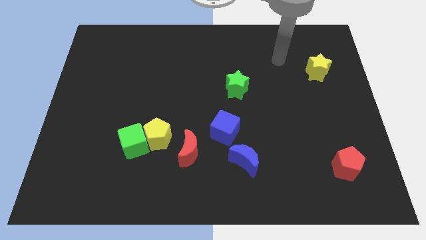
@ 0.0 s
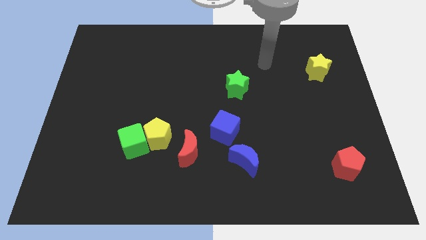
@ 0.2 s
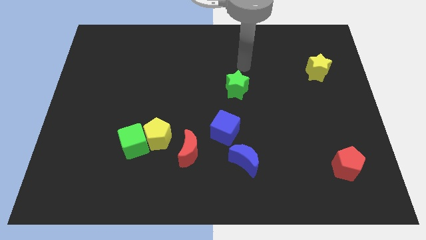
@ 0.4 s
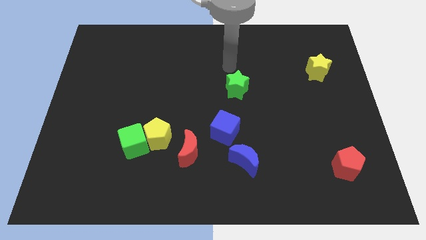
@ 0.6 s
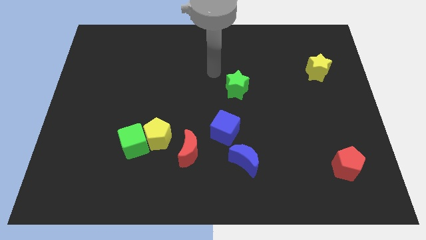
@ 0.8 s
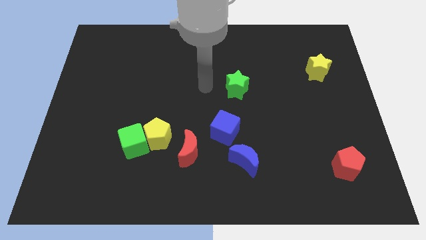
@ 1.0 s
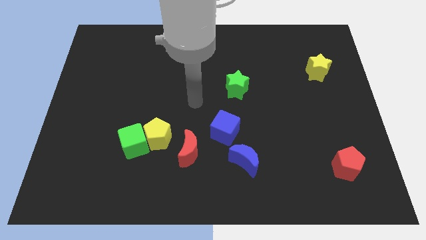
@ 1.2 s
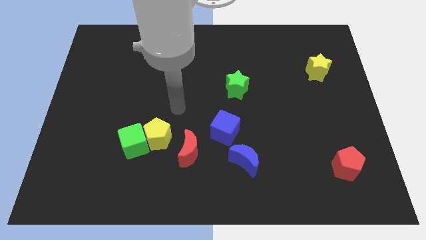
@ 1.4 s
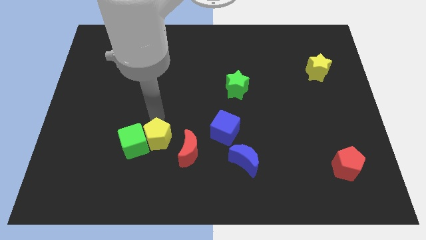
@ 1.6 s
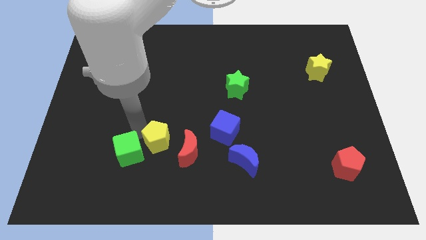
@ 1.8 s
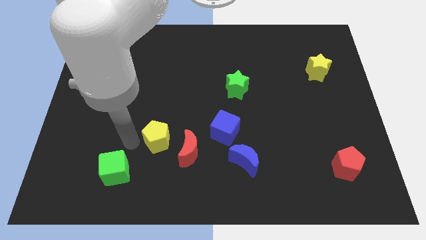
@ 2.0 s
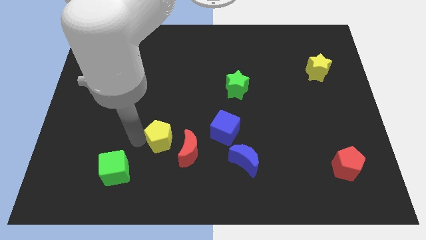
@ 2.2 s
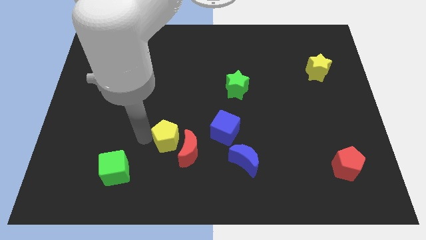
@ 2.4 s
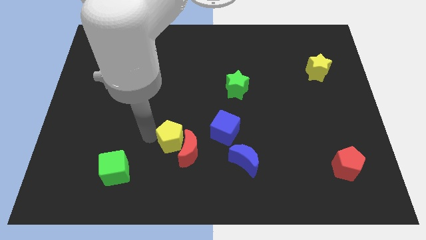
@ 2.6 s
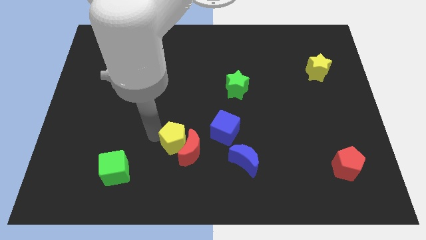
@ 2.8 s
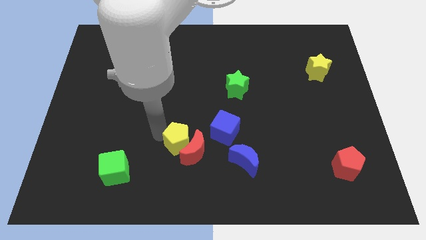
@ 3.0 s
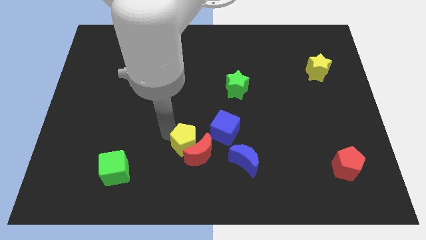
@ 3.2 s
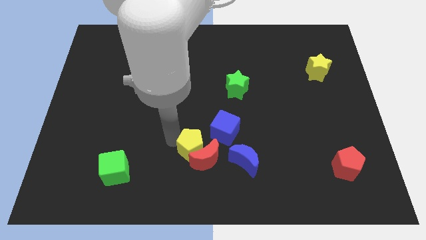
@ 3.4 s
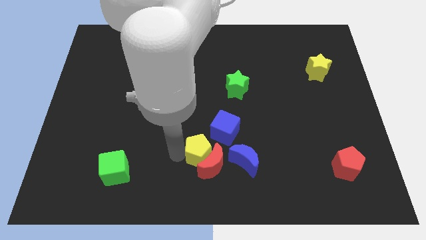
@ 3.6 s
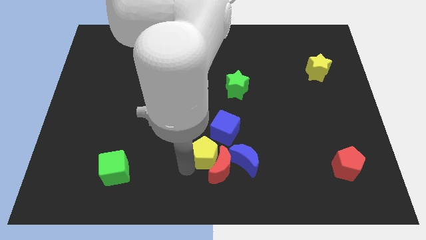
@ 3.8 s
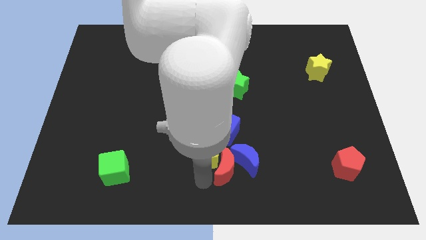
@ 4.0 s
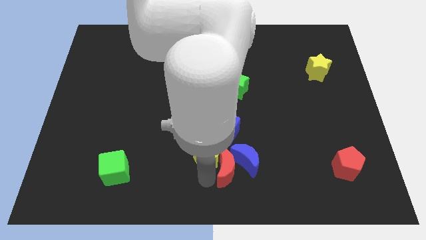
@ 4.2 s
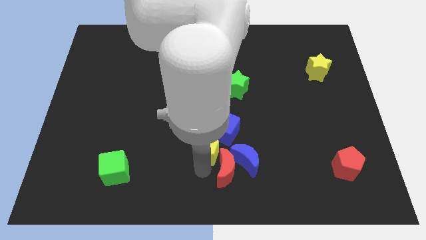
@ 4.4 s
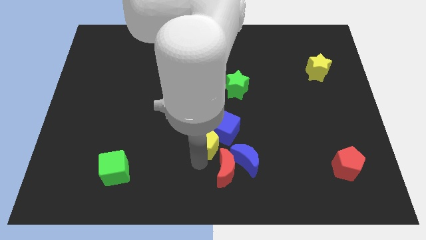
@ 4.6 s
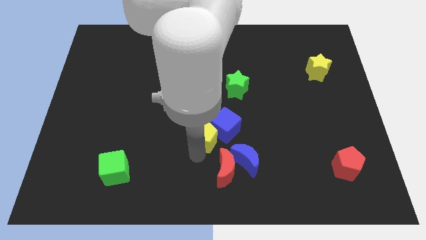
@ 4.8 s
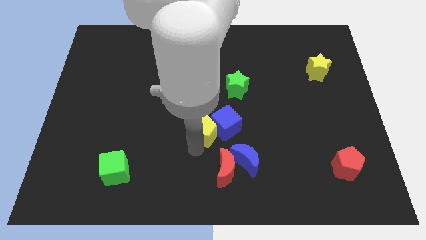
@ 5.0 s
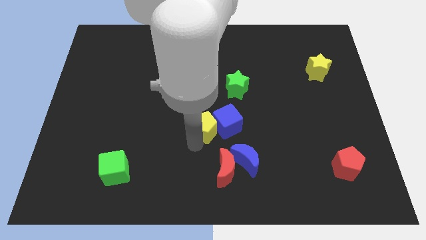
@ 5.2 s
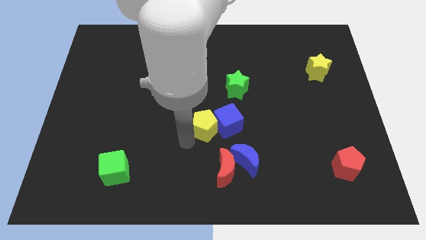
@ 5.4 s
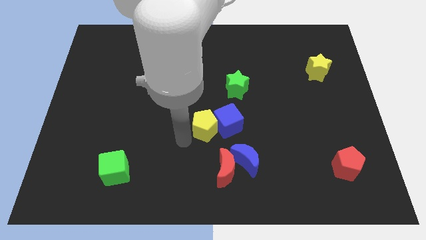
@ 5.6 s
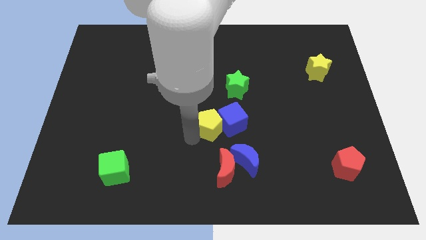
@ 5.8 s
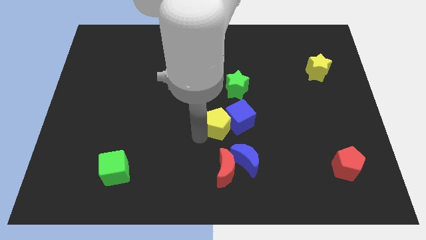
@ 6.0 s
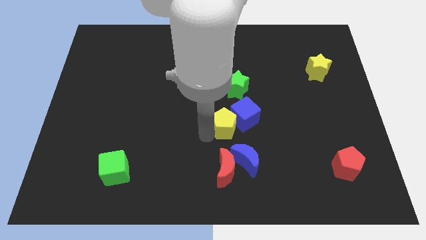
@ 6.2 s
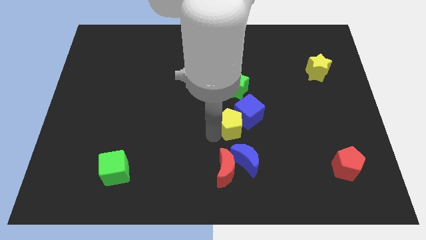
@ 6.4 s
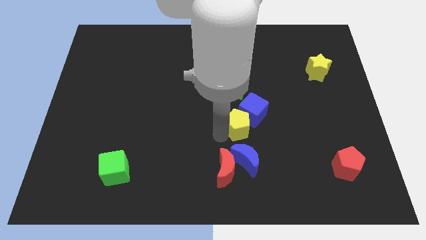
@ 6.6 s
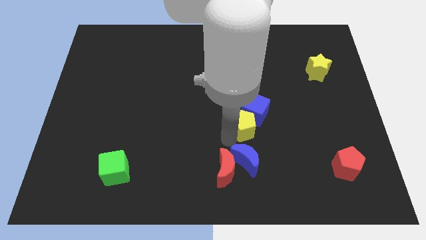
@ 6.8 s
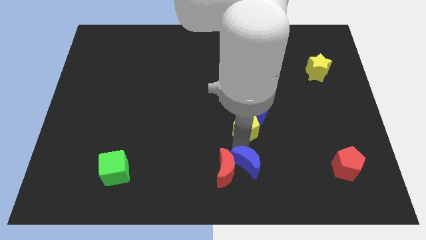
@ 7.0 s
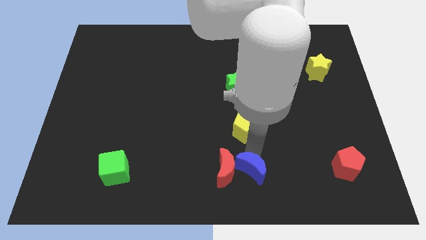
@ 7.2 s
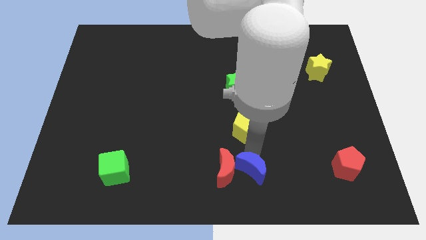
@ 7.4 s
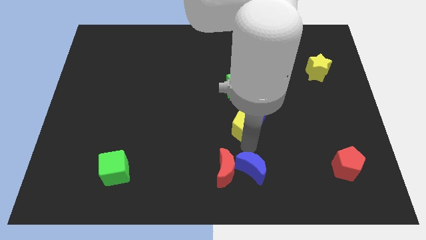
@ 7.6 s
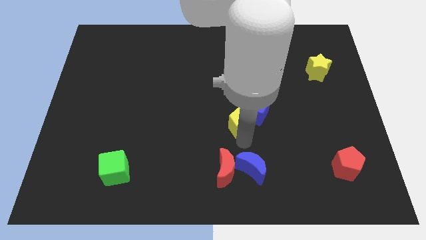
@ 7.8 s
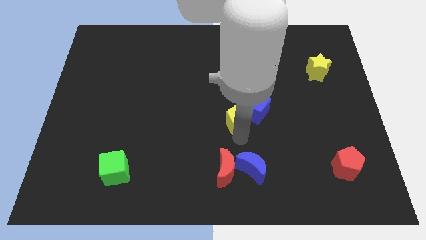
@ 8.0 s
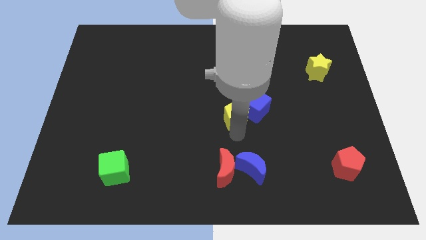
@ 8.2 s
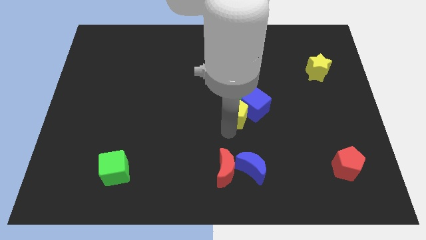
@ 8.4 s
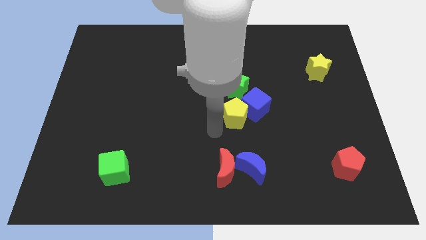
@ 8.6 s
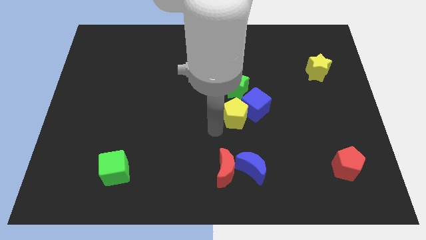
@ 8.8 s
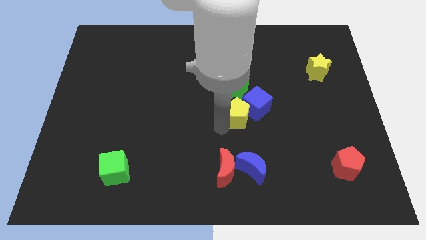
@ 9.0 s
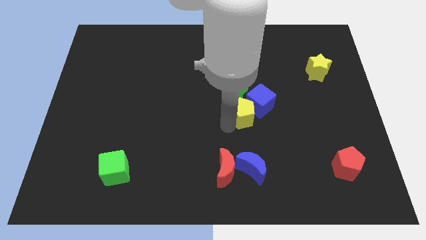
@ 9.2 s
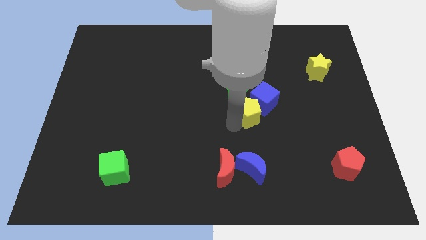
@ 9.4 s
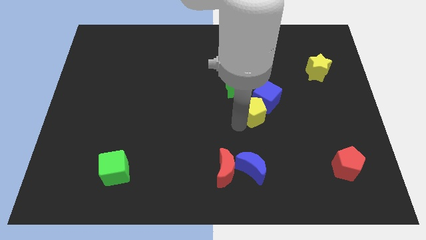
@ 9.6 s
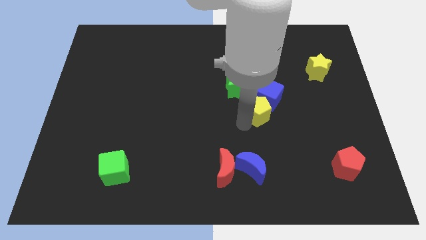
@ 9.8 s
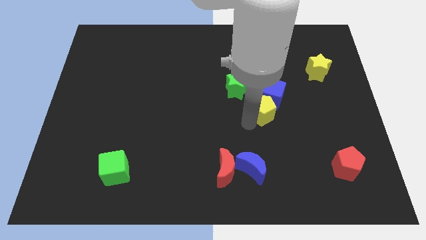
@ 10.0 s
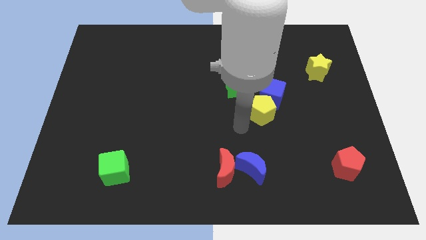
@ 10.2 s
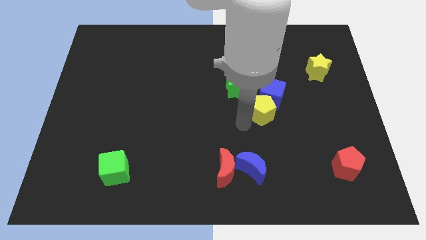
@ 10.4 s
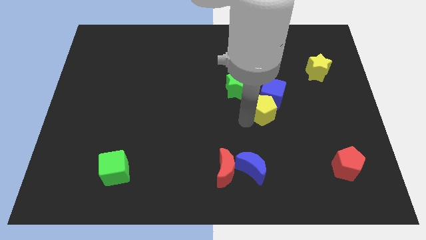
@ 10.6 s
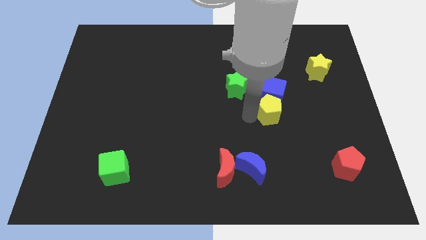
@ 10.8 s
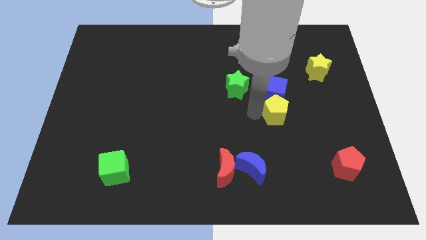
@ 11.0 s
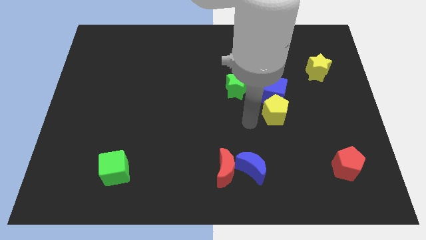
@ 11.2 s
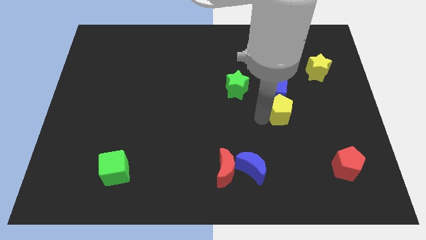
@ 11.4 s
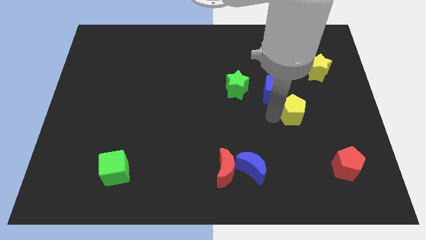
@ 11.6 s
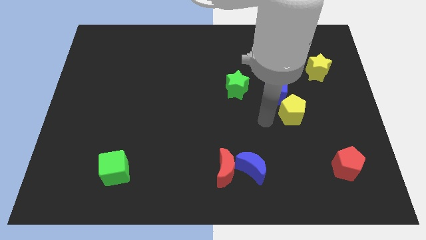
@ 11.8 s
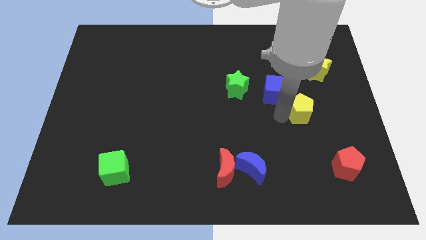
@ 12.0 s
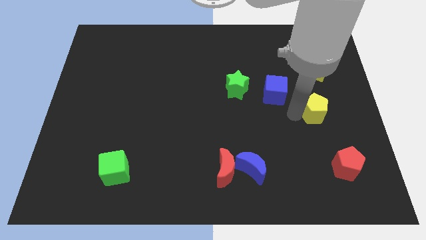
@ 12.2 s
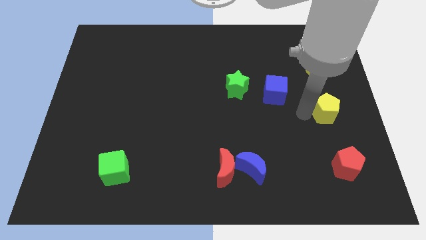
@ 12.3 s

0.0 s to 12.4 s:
move the yellow pentagon to the right side

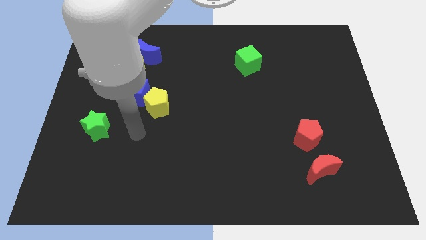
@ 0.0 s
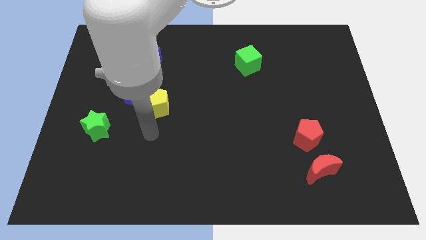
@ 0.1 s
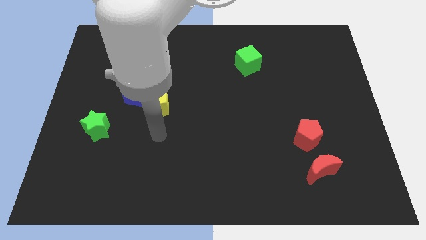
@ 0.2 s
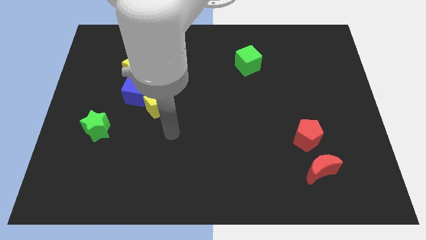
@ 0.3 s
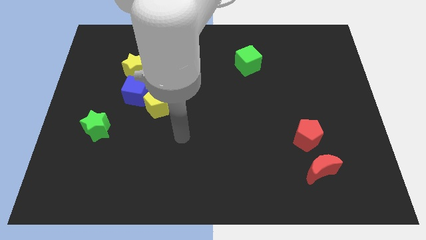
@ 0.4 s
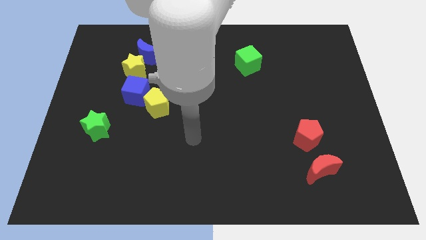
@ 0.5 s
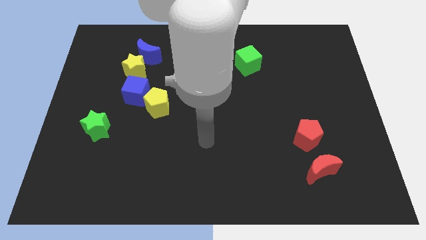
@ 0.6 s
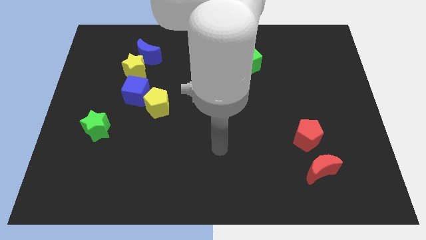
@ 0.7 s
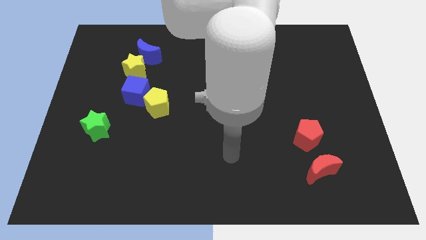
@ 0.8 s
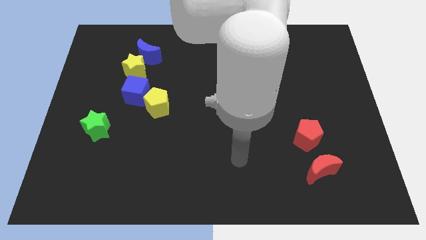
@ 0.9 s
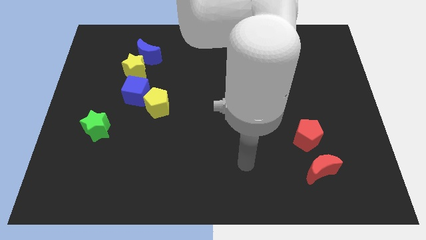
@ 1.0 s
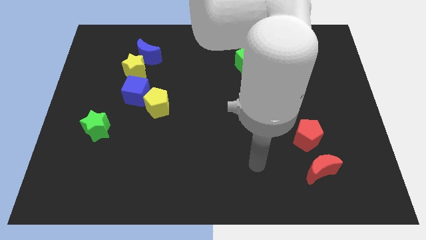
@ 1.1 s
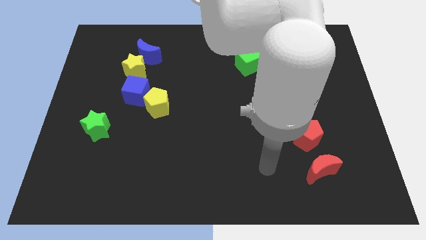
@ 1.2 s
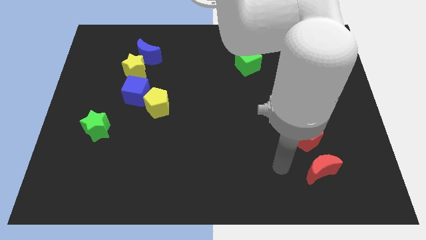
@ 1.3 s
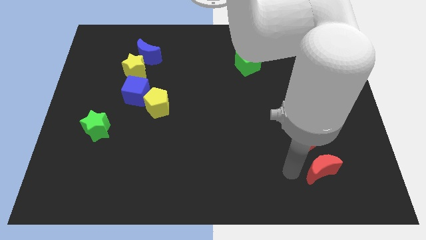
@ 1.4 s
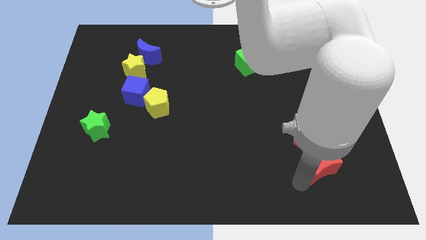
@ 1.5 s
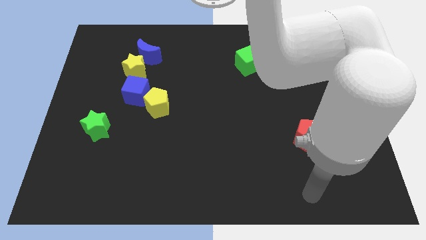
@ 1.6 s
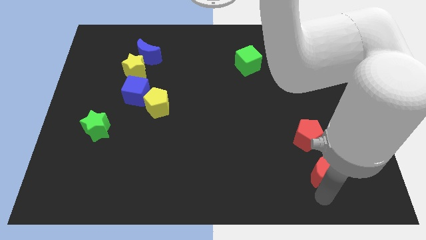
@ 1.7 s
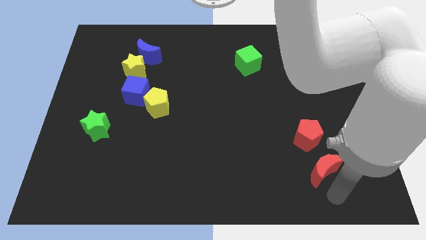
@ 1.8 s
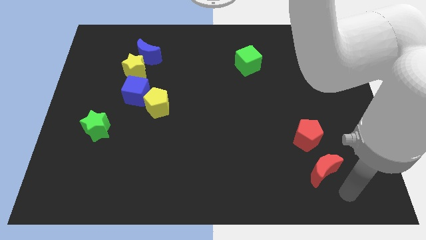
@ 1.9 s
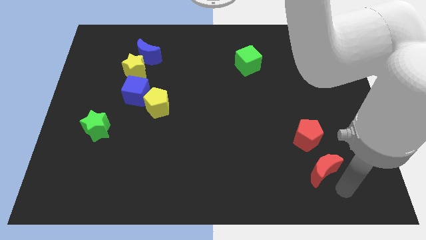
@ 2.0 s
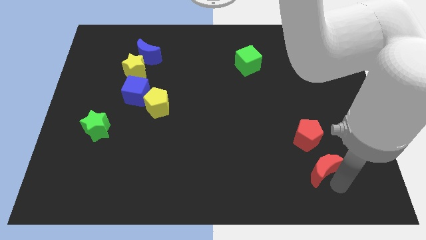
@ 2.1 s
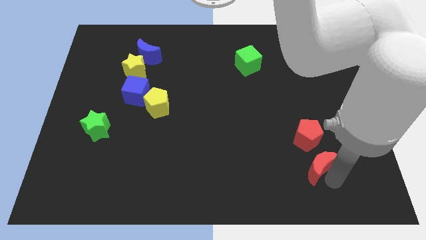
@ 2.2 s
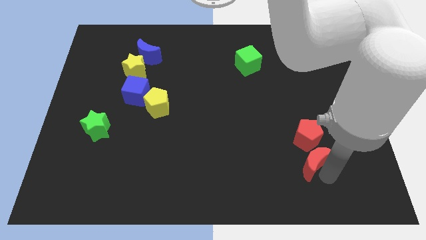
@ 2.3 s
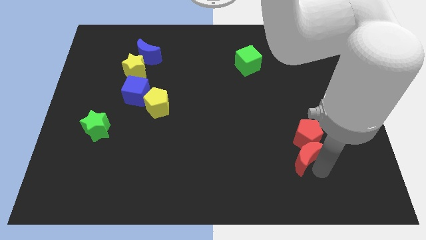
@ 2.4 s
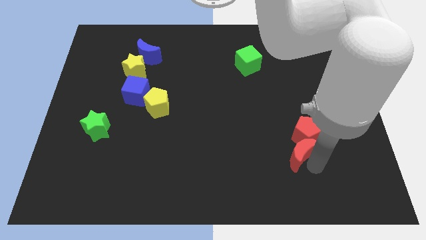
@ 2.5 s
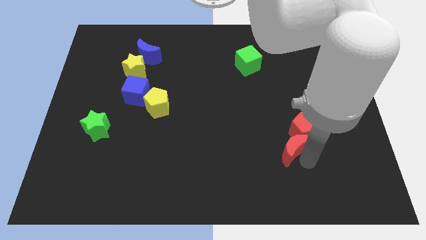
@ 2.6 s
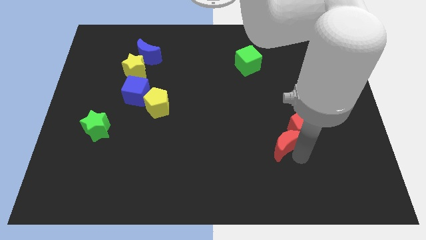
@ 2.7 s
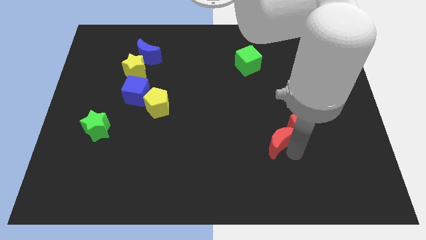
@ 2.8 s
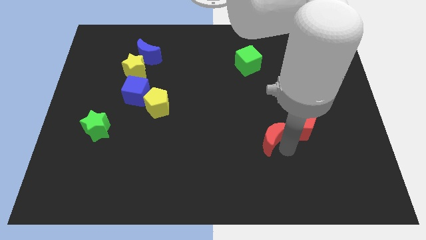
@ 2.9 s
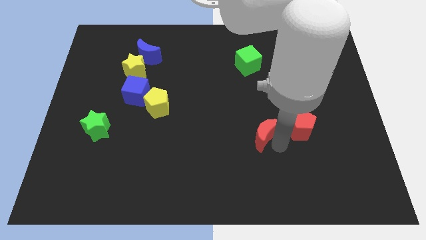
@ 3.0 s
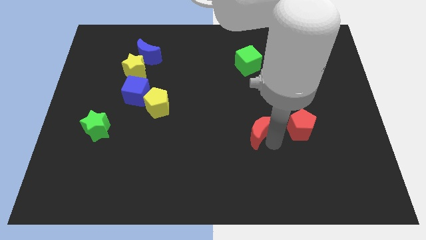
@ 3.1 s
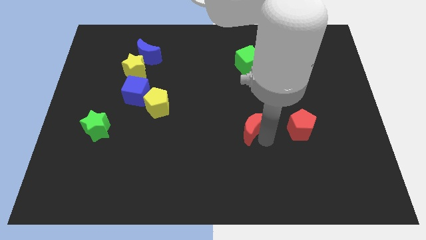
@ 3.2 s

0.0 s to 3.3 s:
put the red moon to the middle of the board
